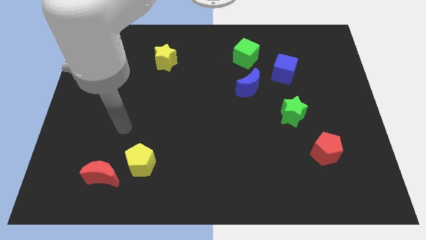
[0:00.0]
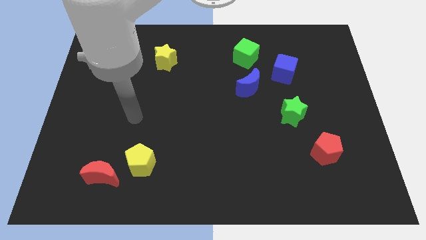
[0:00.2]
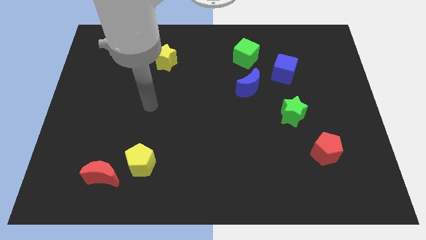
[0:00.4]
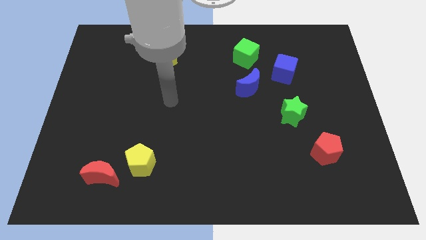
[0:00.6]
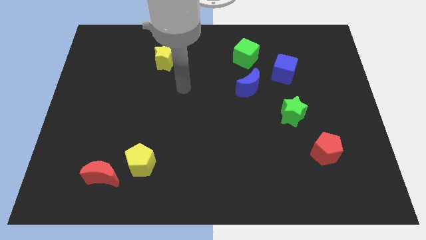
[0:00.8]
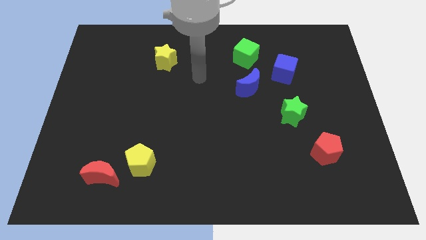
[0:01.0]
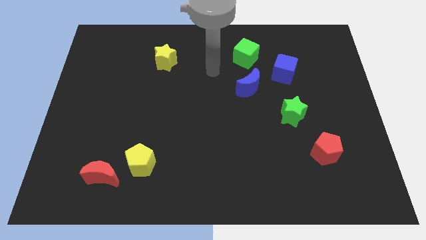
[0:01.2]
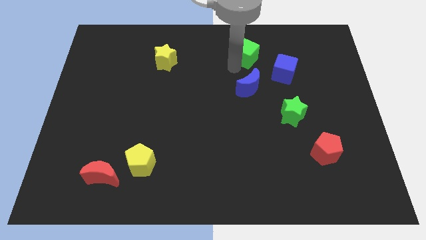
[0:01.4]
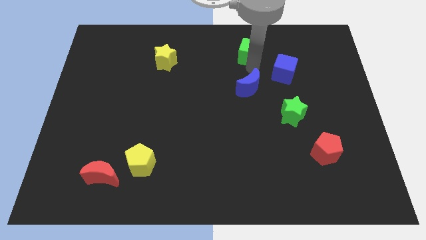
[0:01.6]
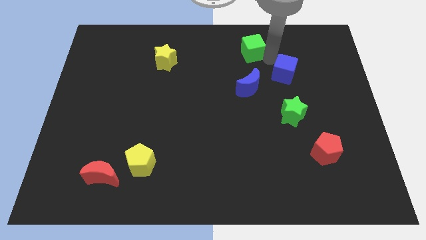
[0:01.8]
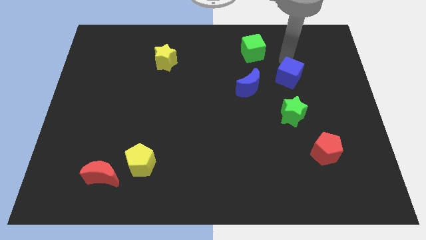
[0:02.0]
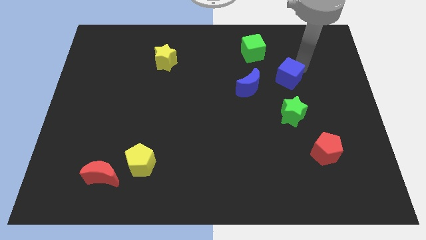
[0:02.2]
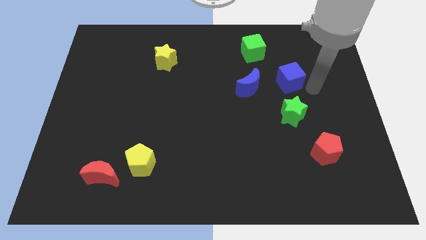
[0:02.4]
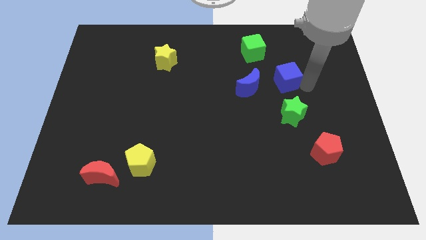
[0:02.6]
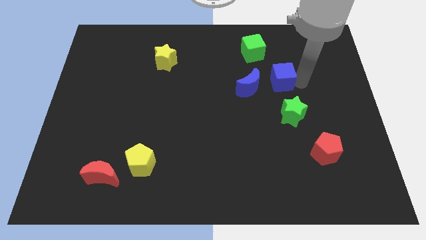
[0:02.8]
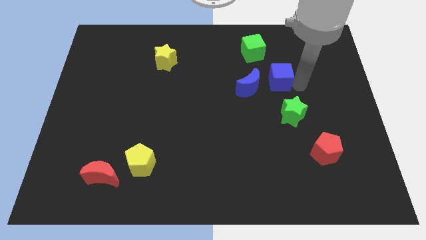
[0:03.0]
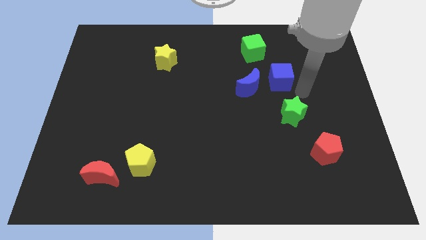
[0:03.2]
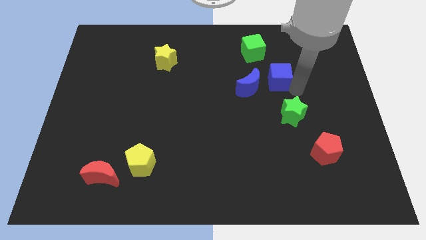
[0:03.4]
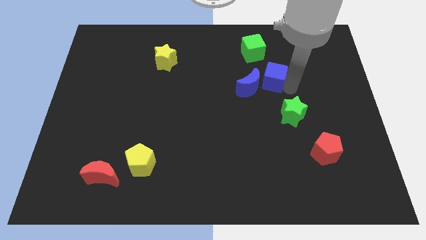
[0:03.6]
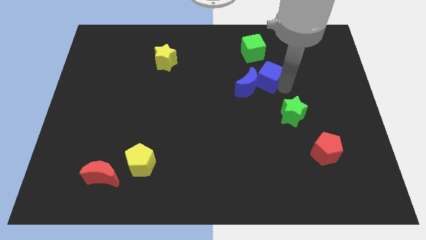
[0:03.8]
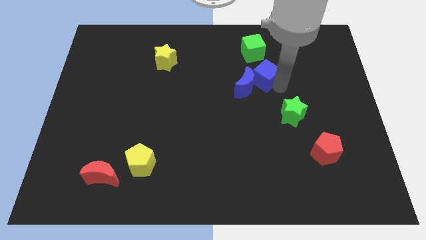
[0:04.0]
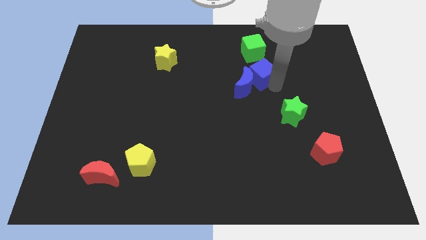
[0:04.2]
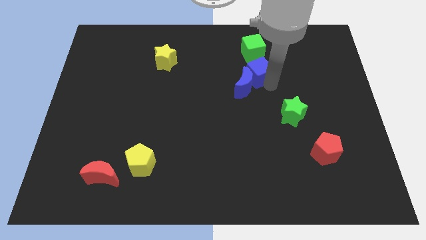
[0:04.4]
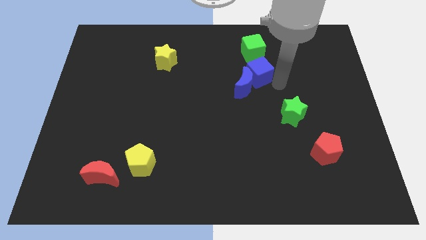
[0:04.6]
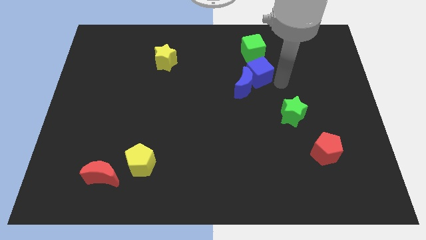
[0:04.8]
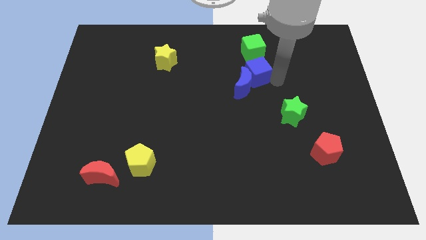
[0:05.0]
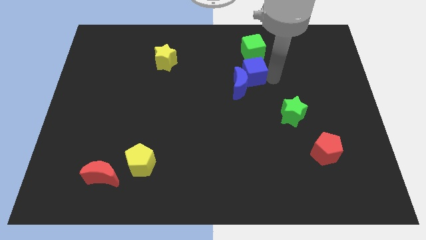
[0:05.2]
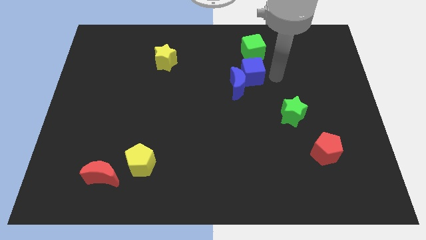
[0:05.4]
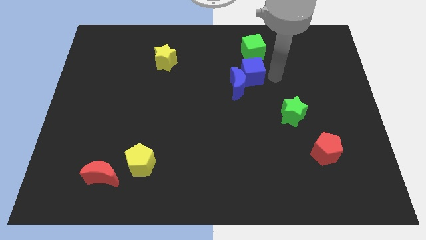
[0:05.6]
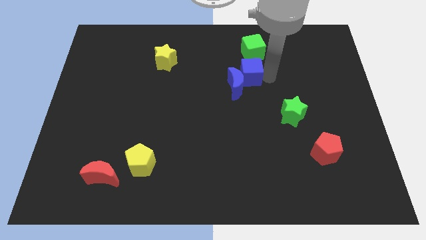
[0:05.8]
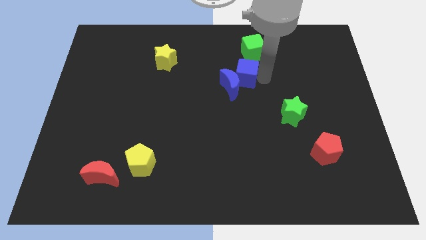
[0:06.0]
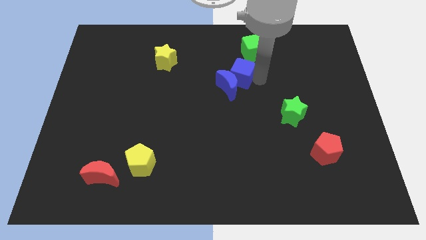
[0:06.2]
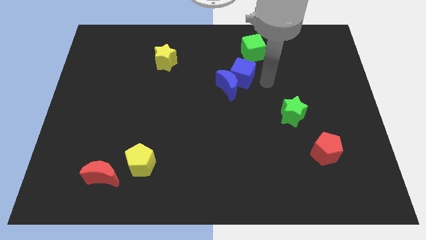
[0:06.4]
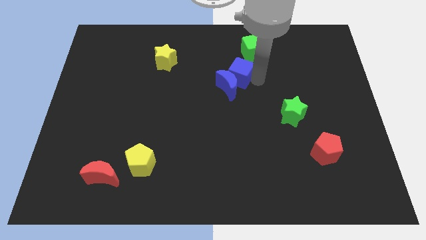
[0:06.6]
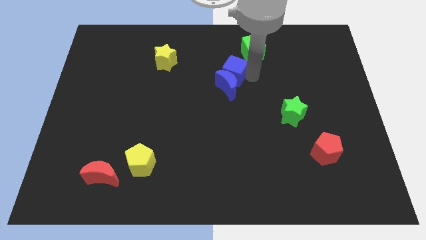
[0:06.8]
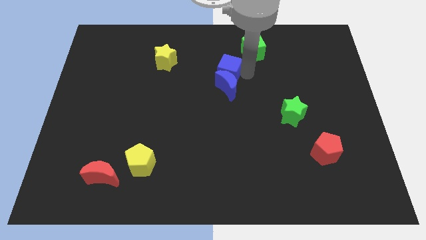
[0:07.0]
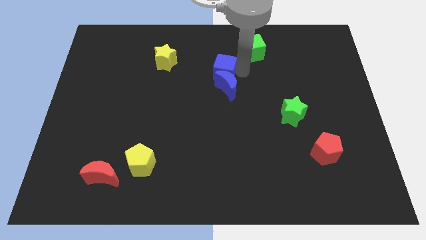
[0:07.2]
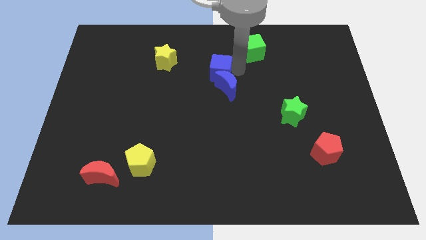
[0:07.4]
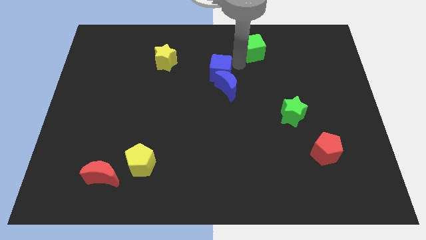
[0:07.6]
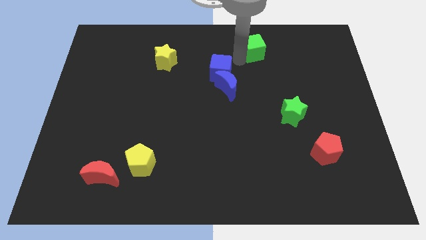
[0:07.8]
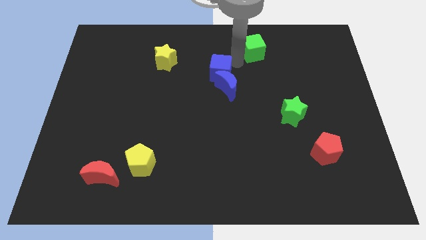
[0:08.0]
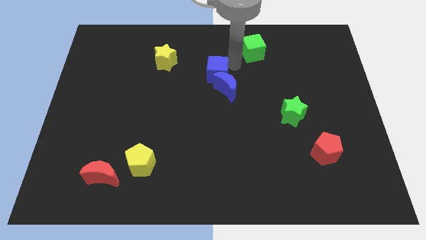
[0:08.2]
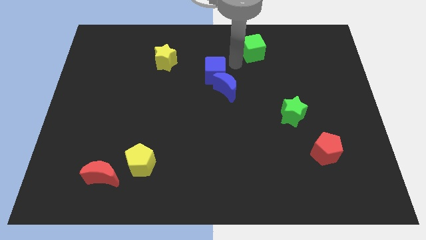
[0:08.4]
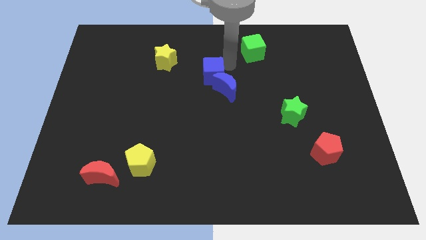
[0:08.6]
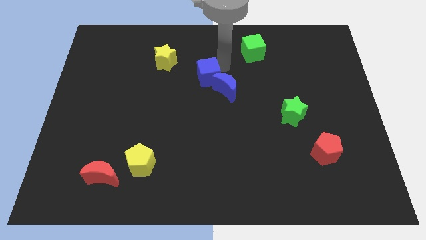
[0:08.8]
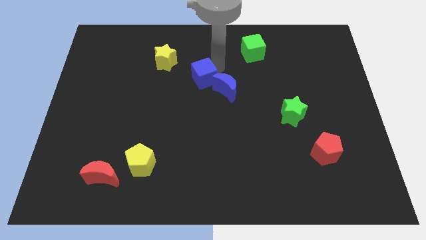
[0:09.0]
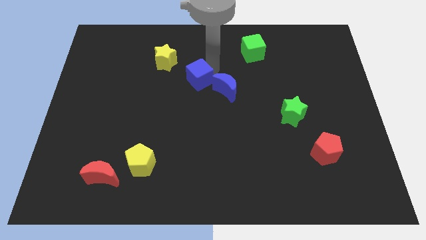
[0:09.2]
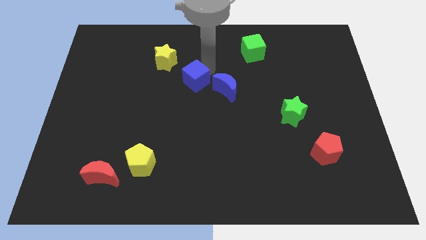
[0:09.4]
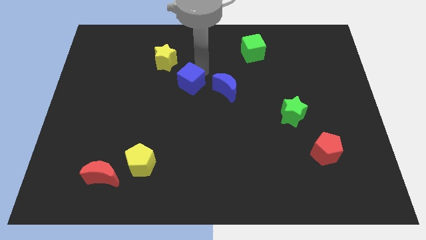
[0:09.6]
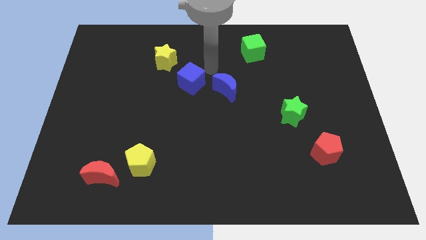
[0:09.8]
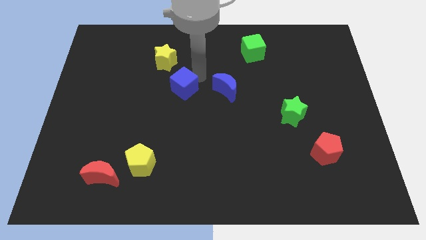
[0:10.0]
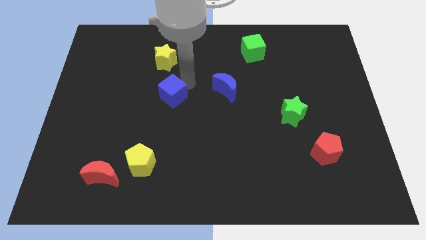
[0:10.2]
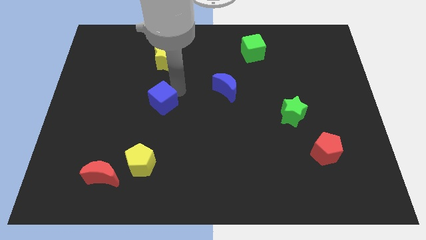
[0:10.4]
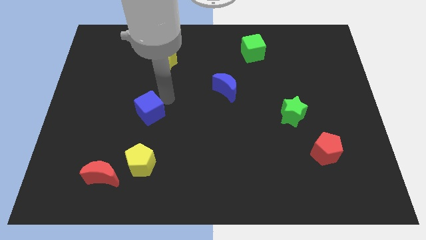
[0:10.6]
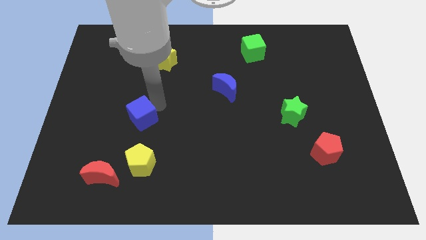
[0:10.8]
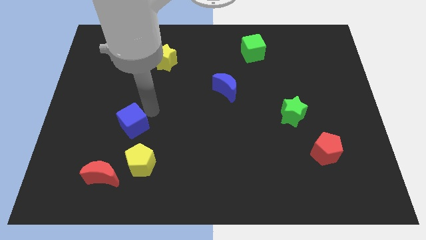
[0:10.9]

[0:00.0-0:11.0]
move the blue cube to the top of the red moon
